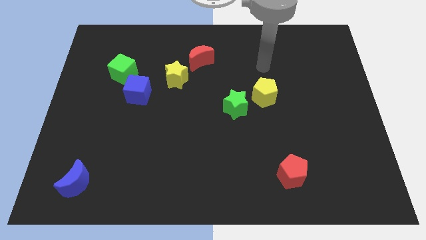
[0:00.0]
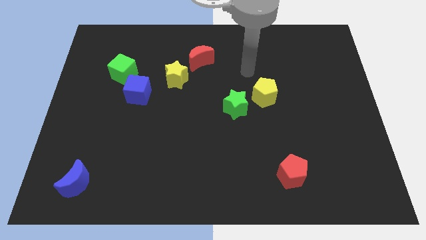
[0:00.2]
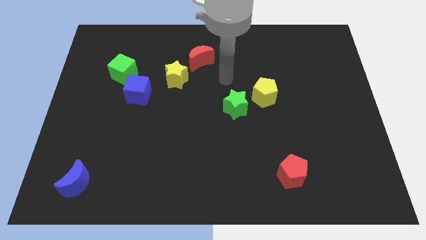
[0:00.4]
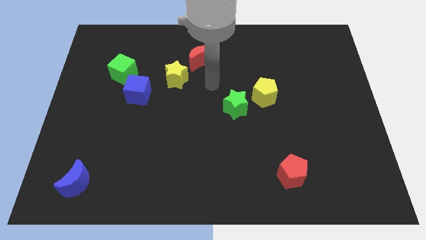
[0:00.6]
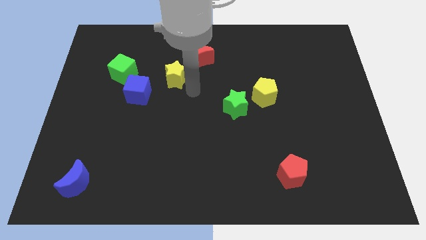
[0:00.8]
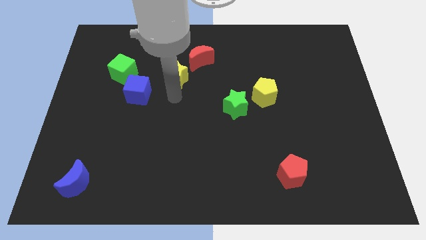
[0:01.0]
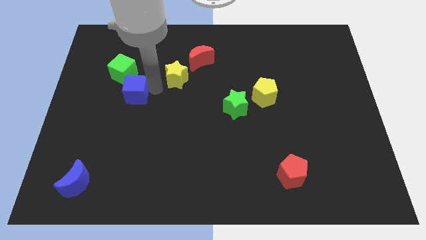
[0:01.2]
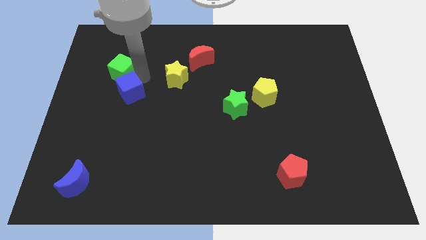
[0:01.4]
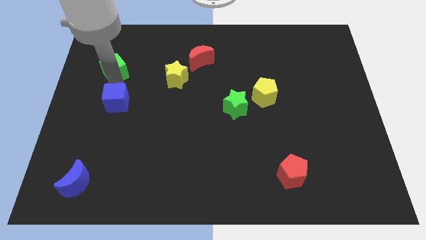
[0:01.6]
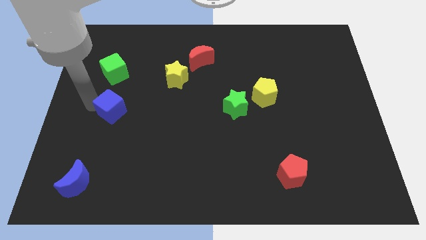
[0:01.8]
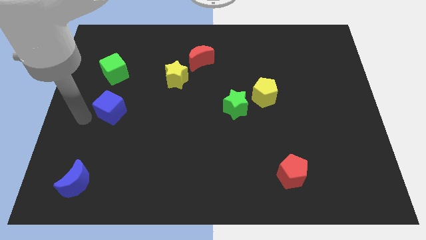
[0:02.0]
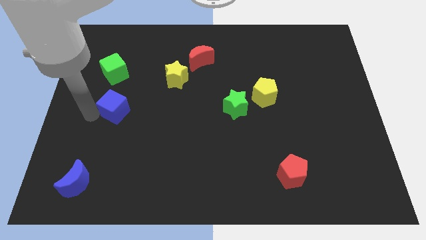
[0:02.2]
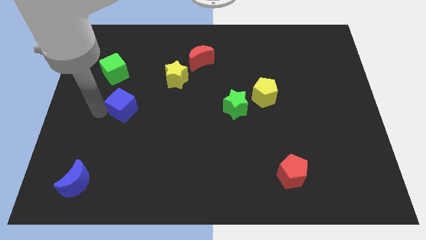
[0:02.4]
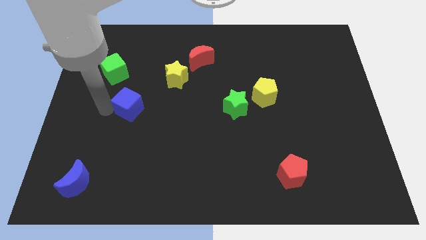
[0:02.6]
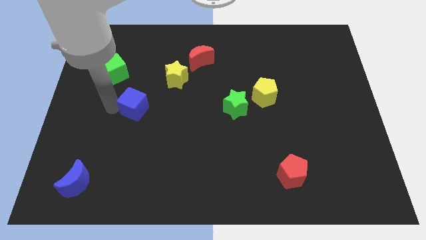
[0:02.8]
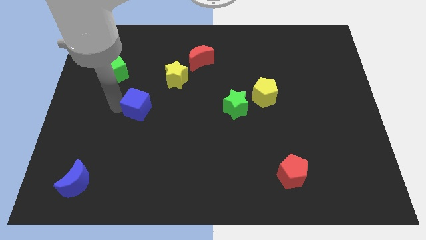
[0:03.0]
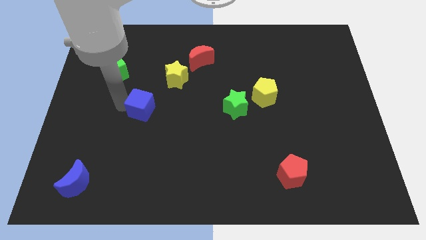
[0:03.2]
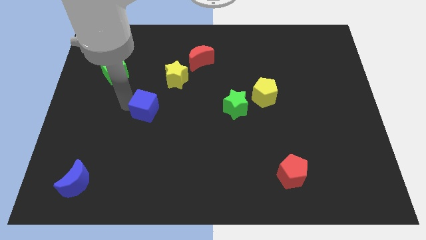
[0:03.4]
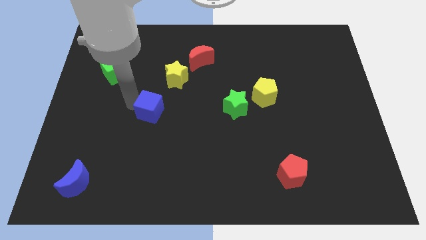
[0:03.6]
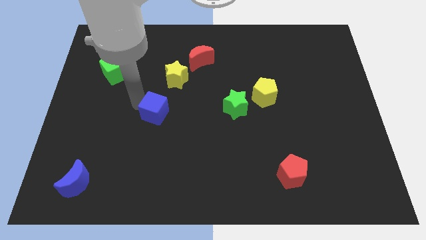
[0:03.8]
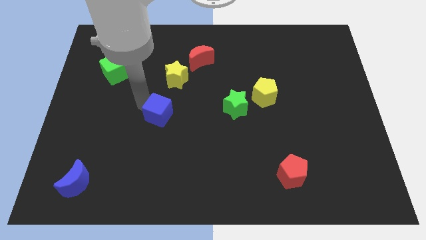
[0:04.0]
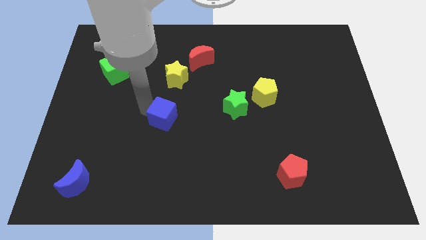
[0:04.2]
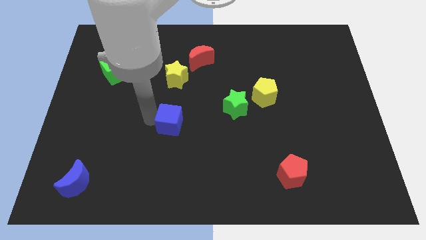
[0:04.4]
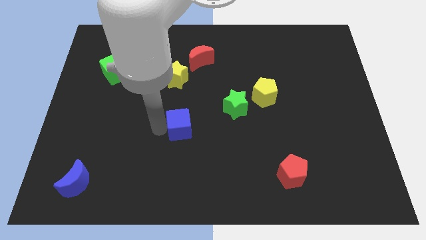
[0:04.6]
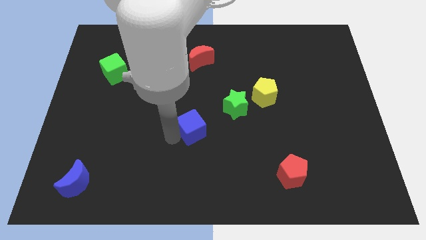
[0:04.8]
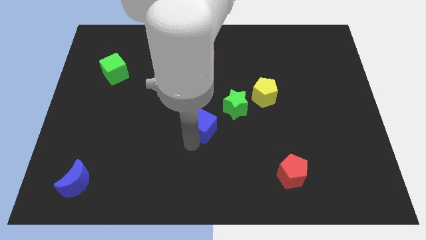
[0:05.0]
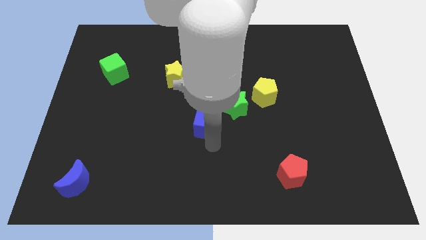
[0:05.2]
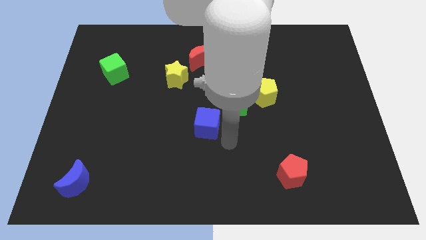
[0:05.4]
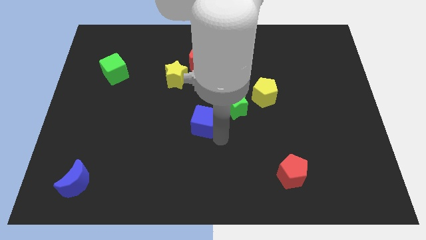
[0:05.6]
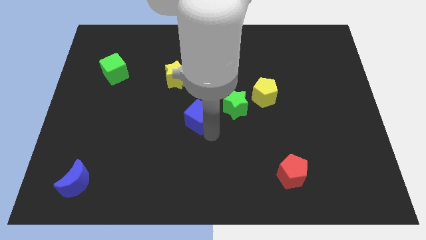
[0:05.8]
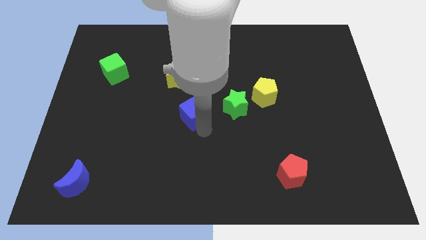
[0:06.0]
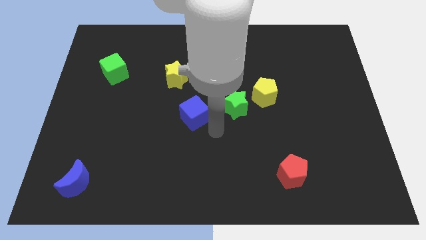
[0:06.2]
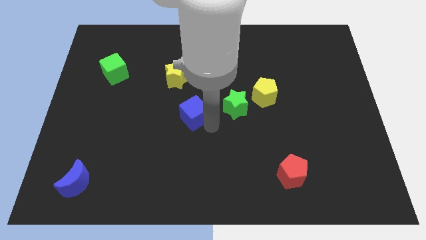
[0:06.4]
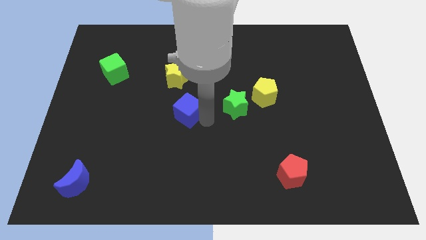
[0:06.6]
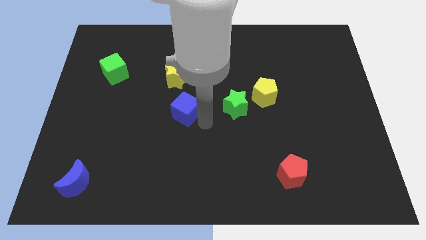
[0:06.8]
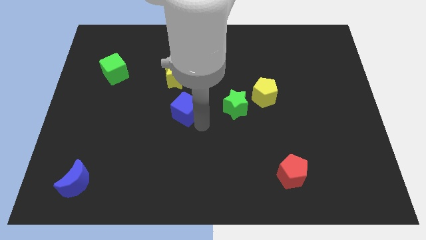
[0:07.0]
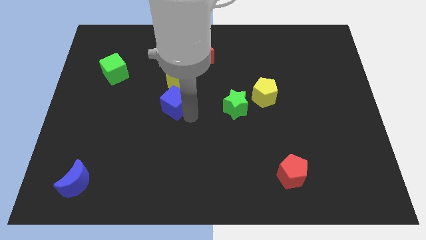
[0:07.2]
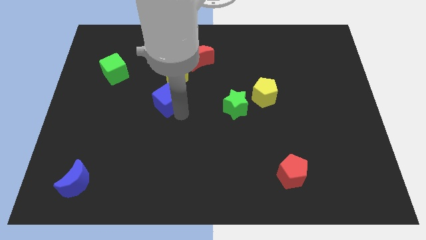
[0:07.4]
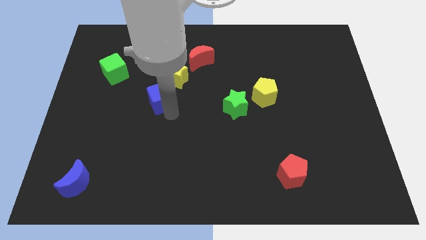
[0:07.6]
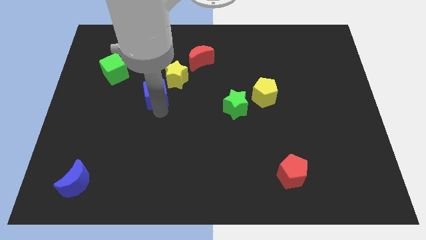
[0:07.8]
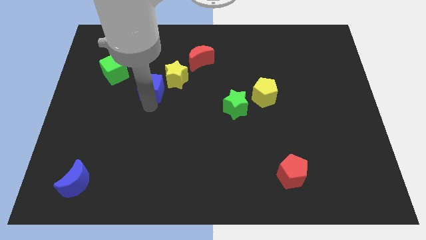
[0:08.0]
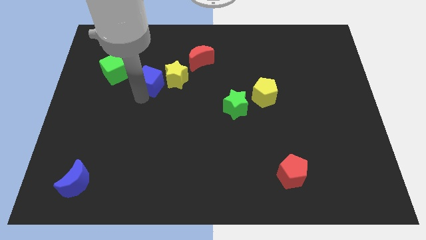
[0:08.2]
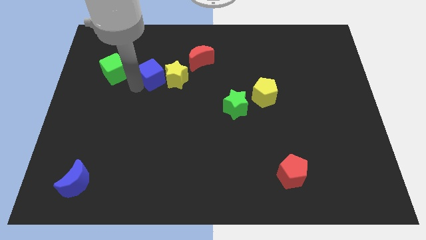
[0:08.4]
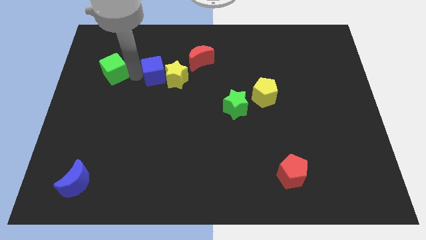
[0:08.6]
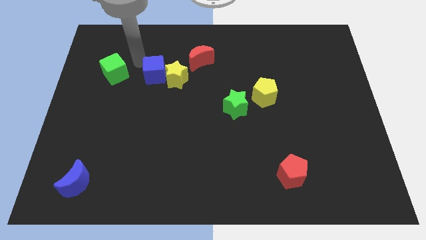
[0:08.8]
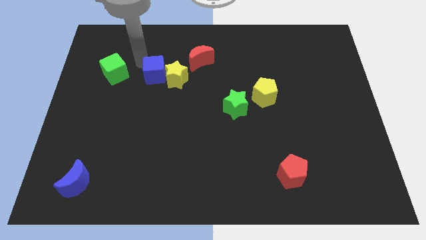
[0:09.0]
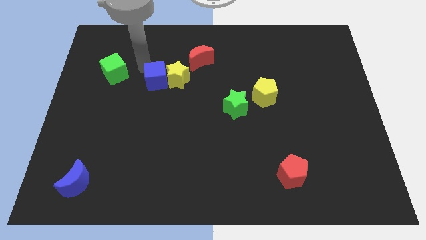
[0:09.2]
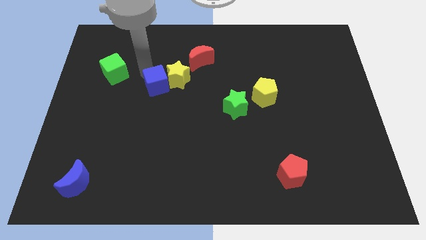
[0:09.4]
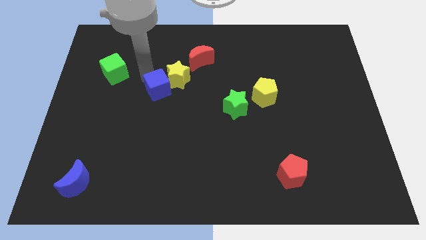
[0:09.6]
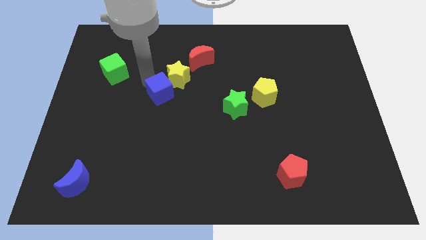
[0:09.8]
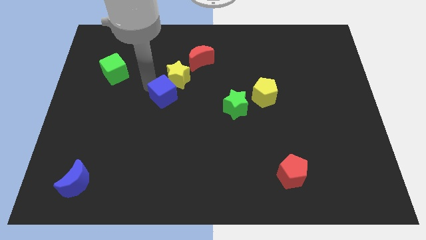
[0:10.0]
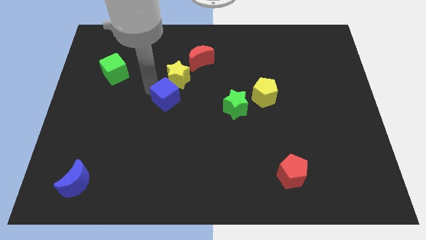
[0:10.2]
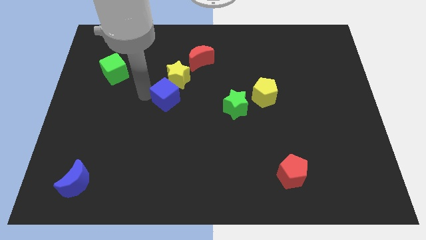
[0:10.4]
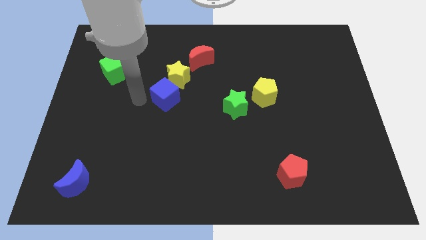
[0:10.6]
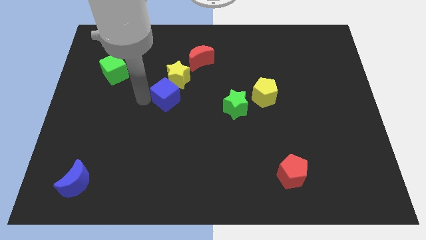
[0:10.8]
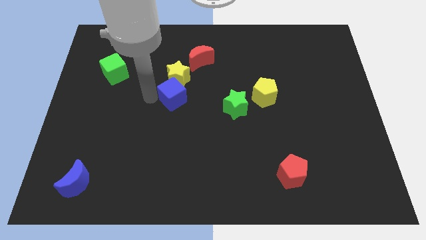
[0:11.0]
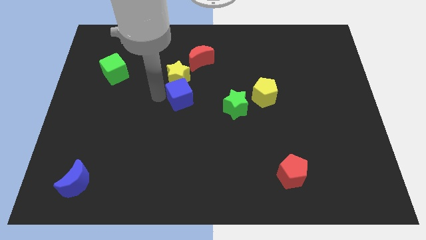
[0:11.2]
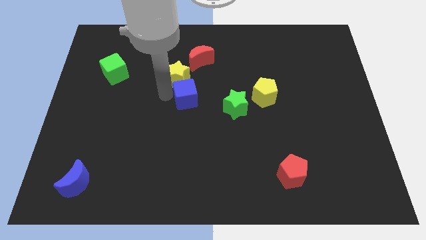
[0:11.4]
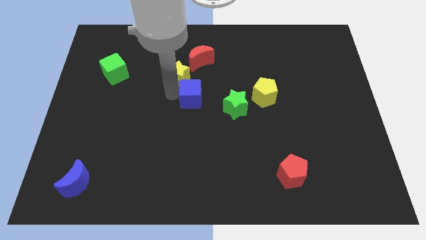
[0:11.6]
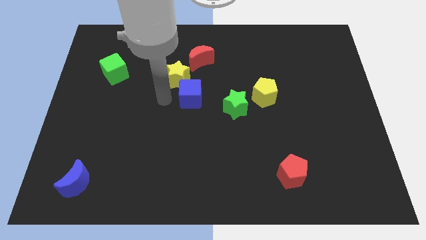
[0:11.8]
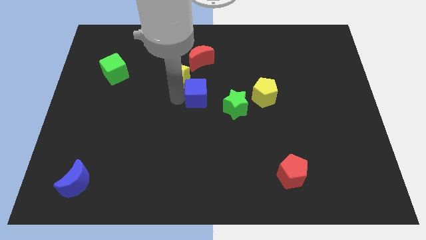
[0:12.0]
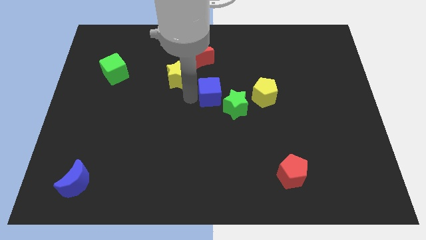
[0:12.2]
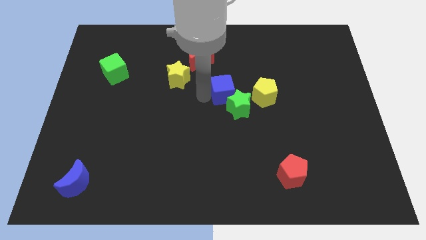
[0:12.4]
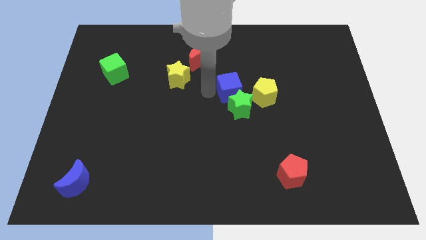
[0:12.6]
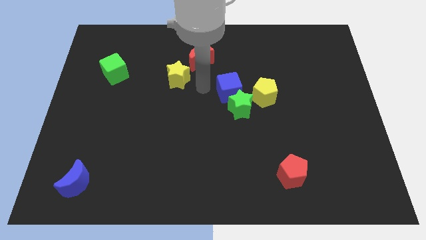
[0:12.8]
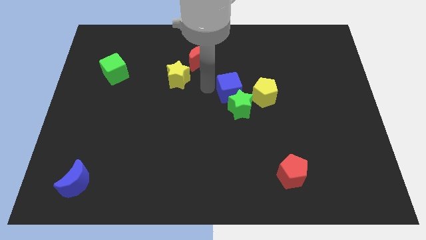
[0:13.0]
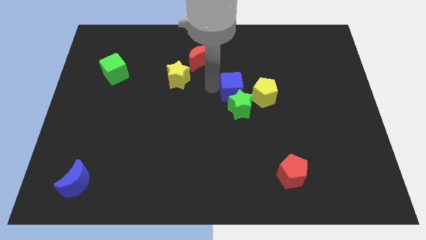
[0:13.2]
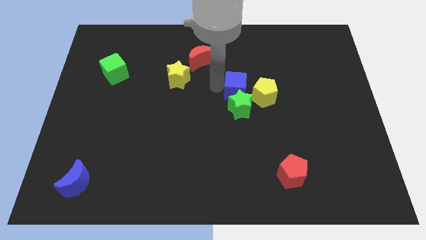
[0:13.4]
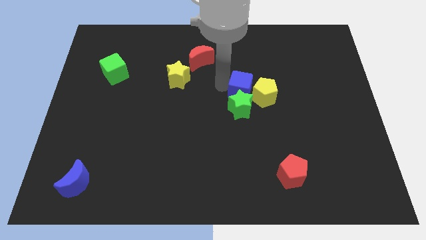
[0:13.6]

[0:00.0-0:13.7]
push the blue cube close to the yellow pentagon

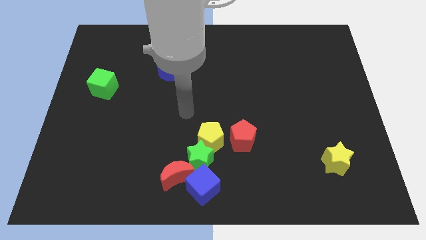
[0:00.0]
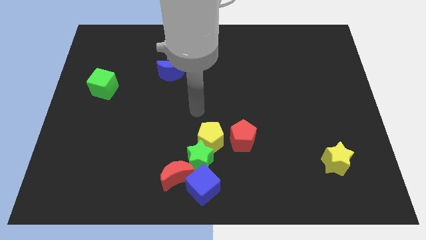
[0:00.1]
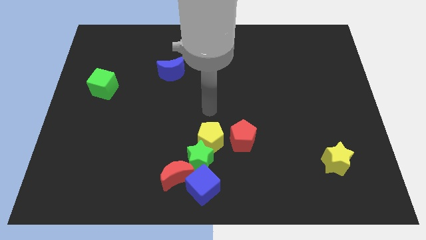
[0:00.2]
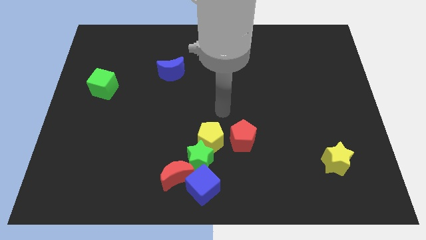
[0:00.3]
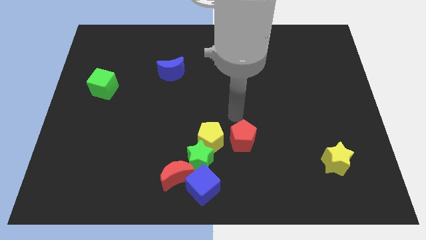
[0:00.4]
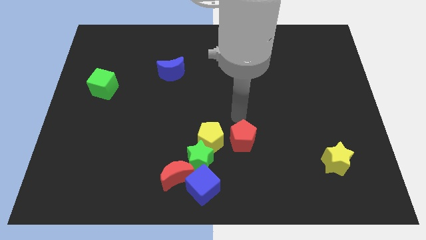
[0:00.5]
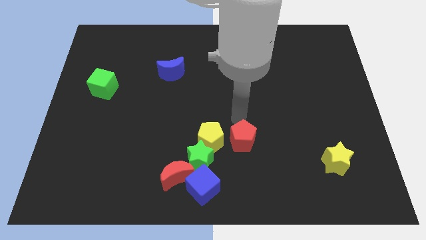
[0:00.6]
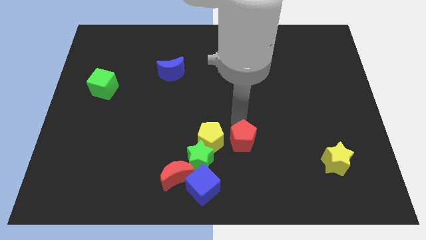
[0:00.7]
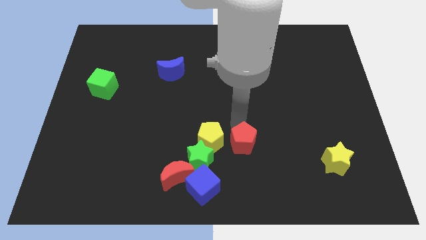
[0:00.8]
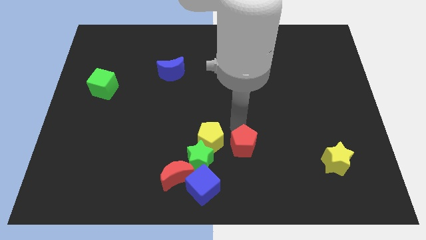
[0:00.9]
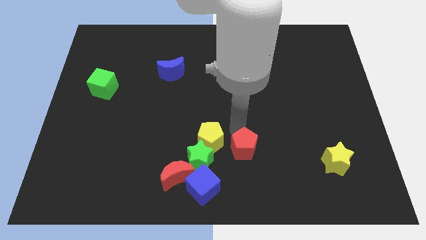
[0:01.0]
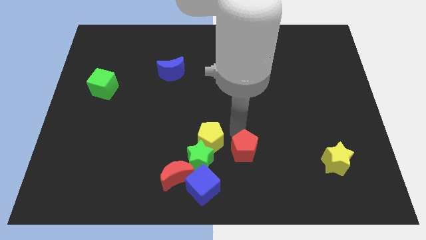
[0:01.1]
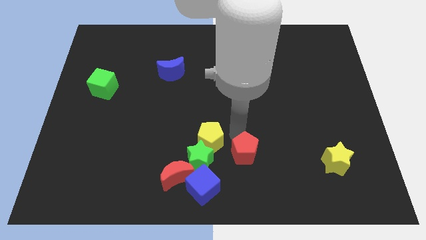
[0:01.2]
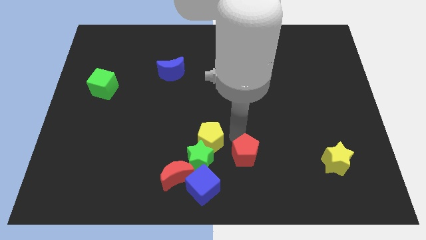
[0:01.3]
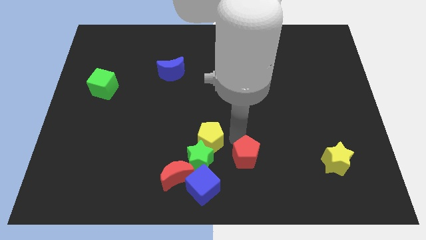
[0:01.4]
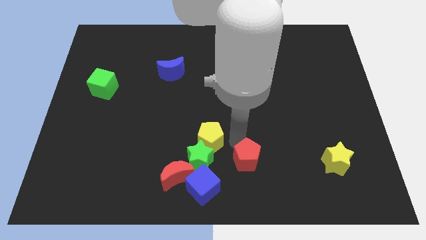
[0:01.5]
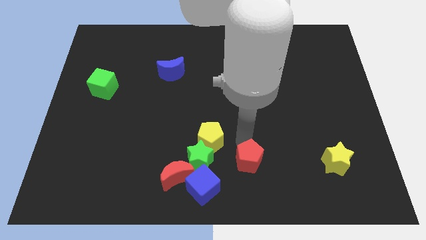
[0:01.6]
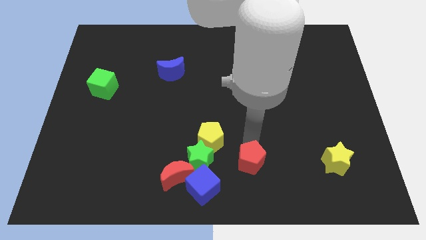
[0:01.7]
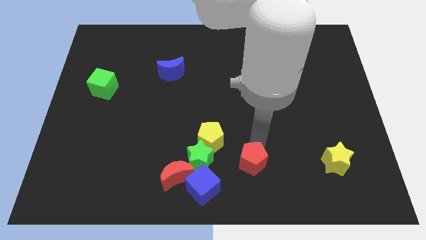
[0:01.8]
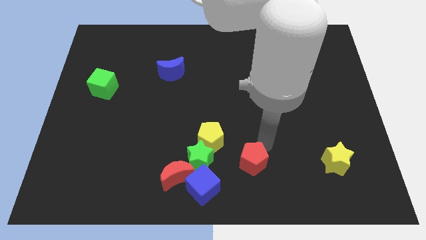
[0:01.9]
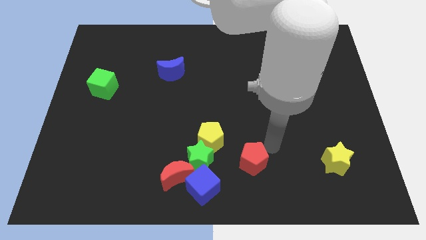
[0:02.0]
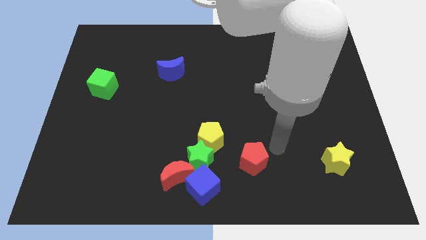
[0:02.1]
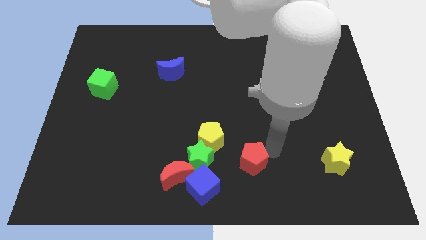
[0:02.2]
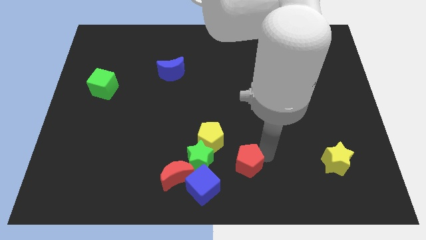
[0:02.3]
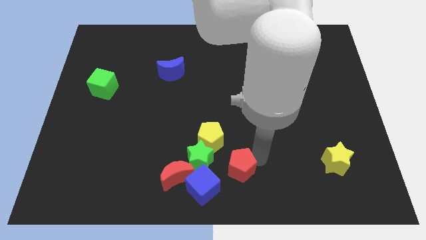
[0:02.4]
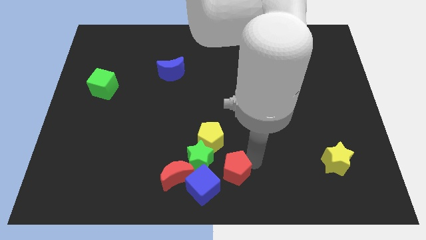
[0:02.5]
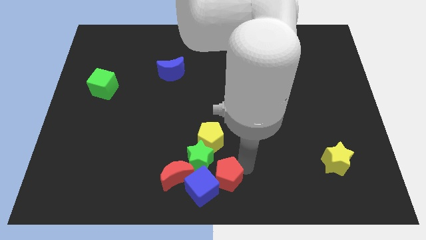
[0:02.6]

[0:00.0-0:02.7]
slide the red pentagon next to the blue cube
